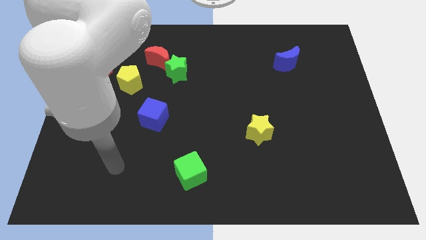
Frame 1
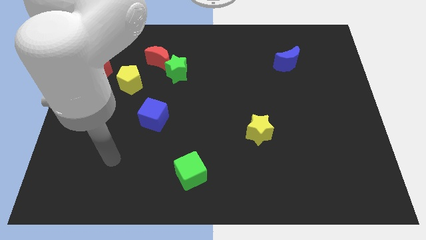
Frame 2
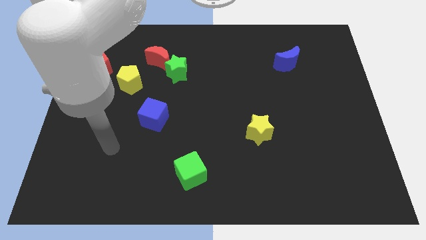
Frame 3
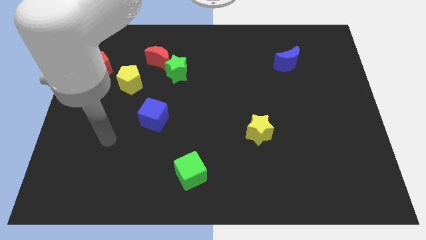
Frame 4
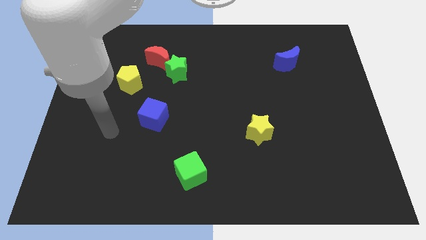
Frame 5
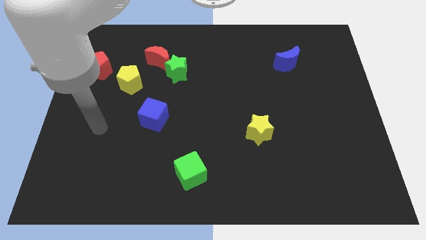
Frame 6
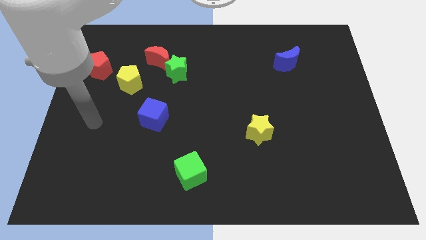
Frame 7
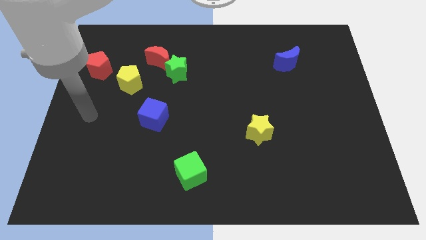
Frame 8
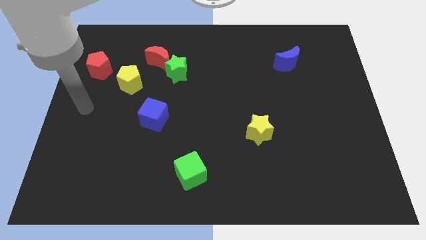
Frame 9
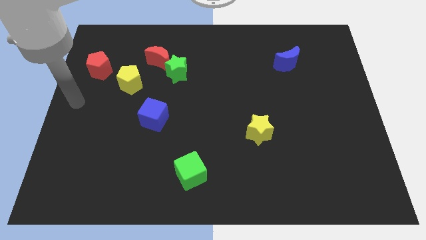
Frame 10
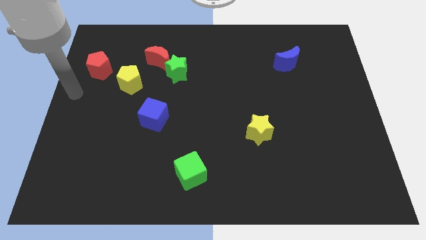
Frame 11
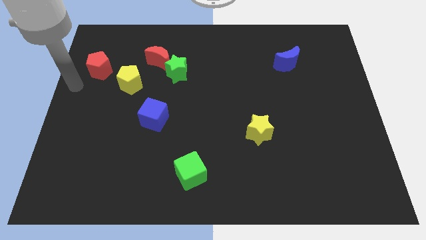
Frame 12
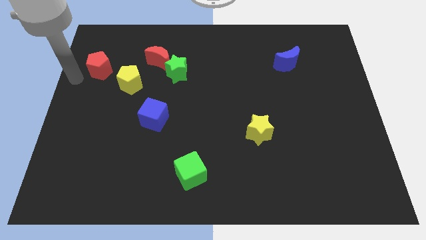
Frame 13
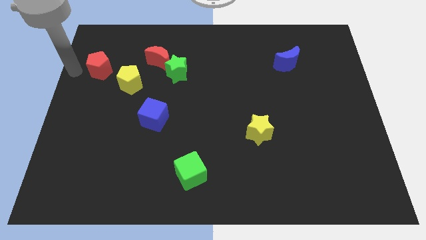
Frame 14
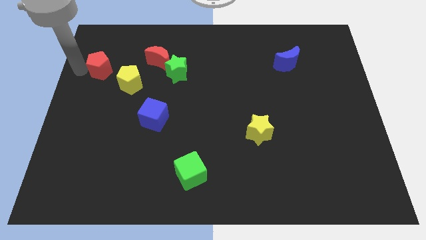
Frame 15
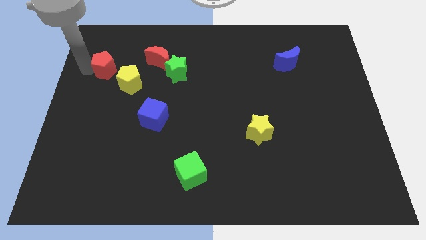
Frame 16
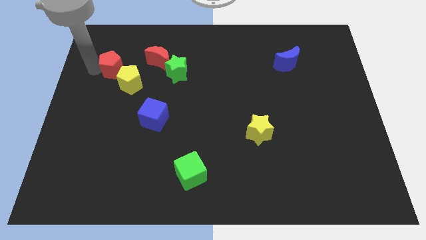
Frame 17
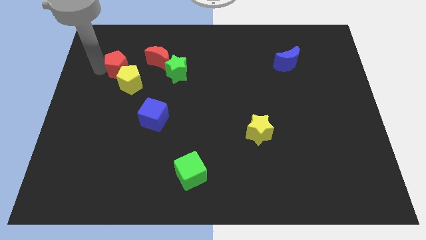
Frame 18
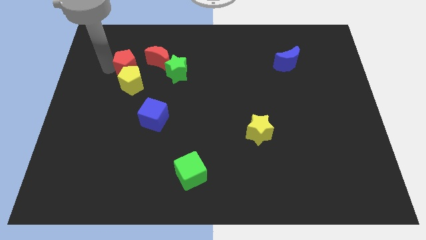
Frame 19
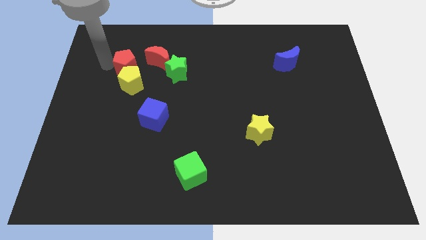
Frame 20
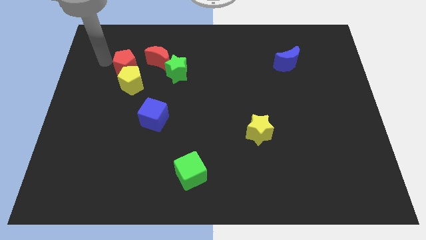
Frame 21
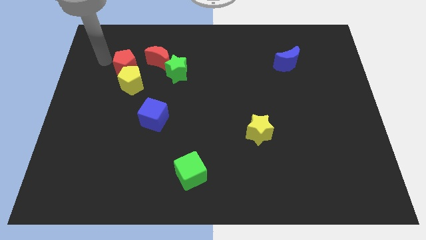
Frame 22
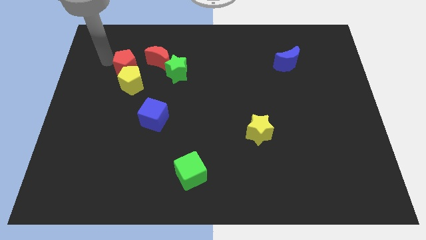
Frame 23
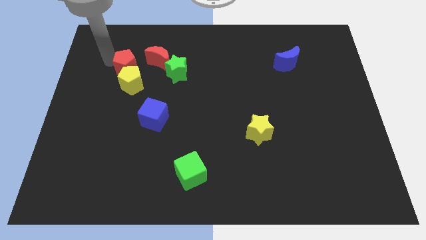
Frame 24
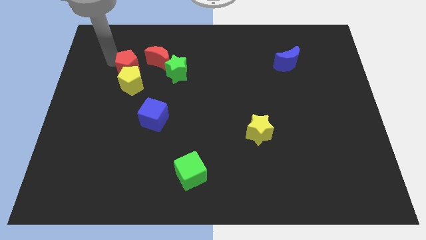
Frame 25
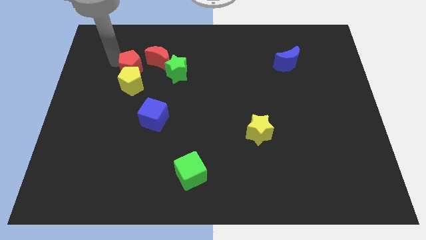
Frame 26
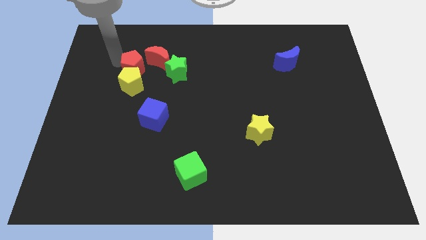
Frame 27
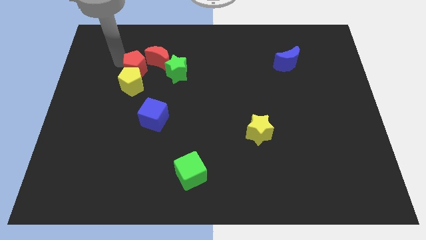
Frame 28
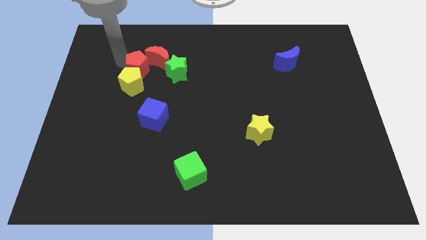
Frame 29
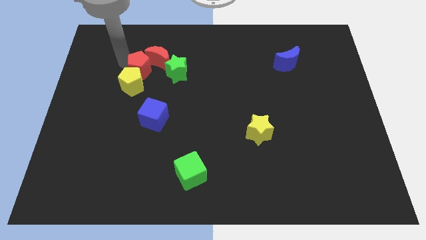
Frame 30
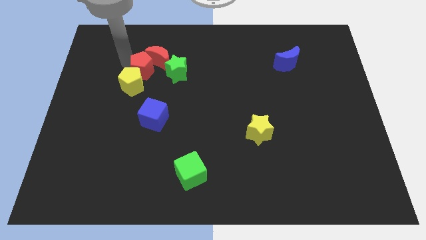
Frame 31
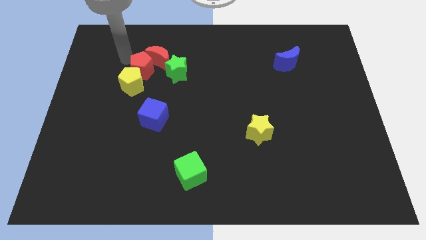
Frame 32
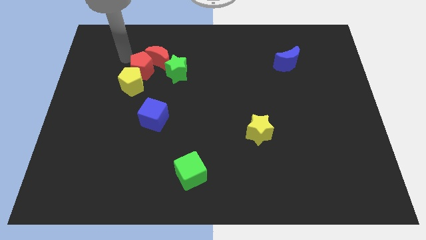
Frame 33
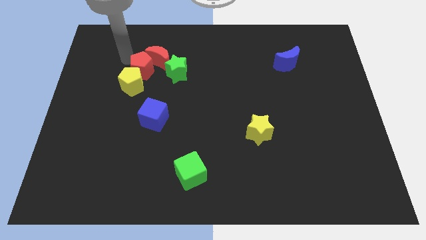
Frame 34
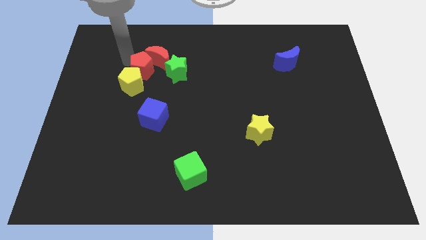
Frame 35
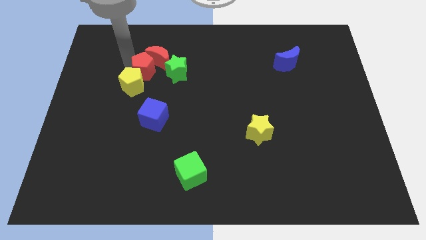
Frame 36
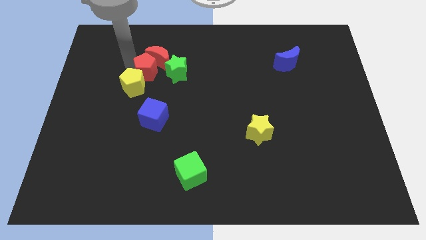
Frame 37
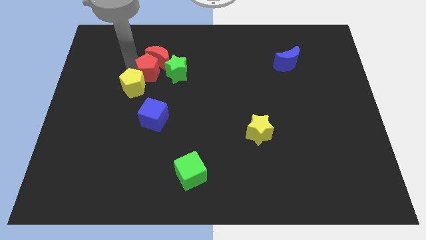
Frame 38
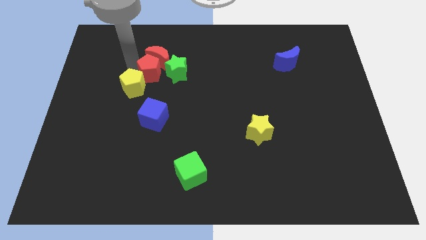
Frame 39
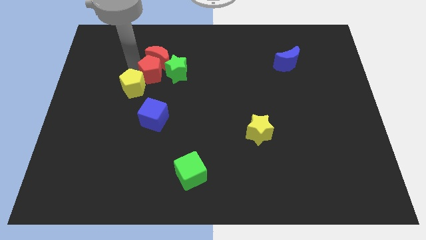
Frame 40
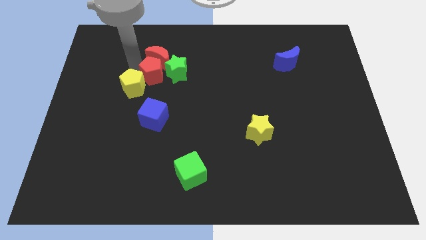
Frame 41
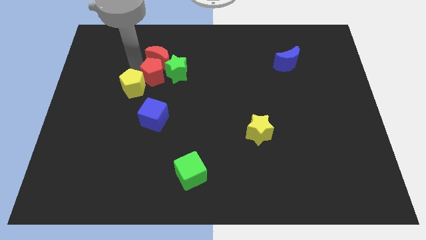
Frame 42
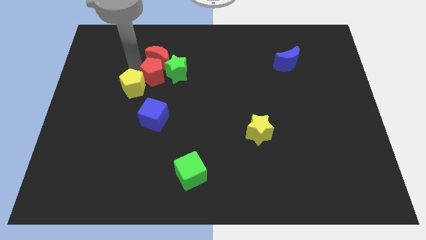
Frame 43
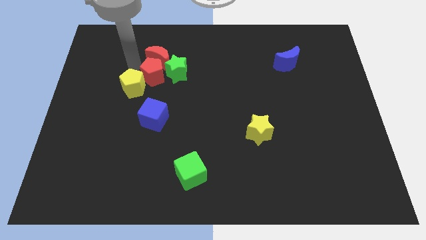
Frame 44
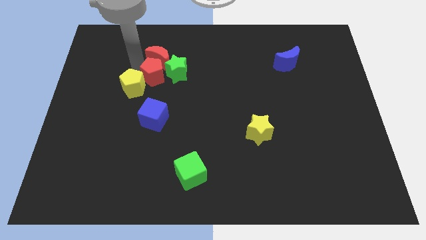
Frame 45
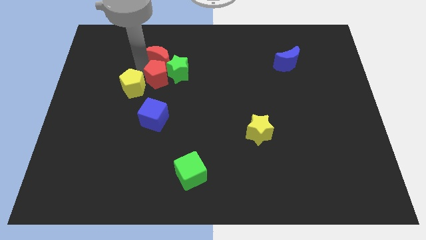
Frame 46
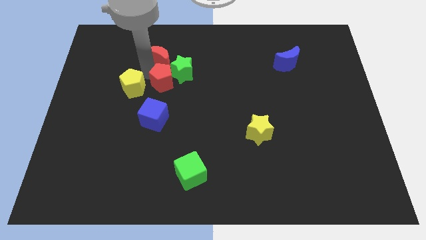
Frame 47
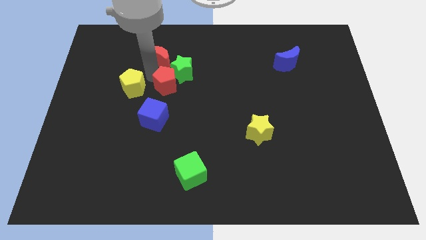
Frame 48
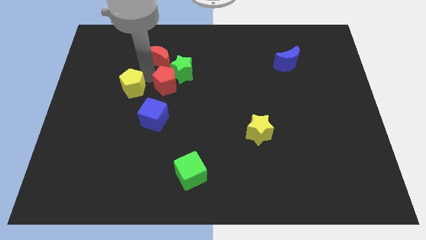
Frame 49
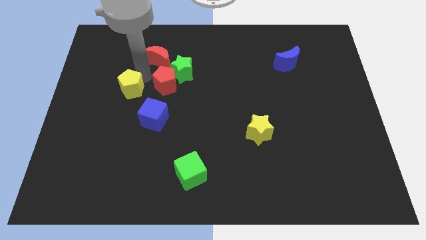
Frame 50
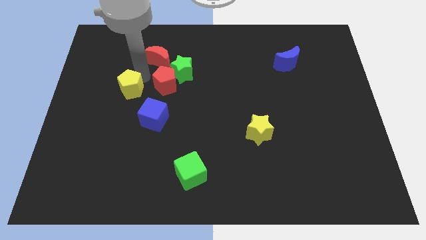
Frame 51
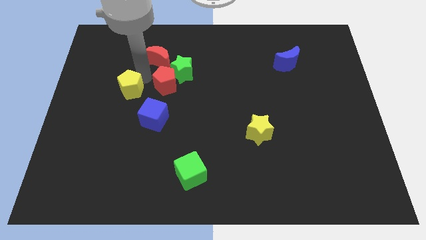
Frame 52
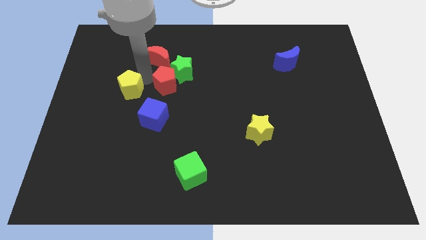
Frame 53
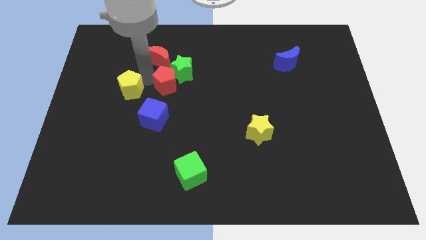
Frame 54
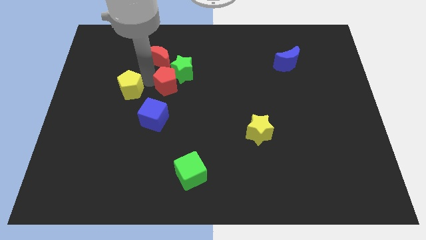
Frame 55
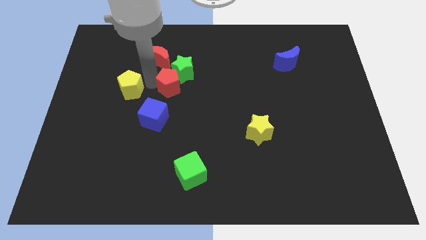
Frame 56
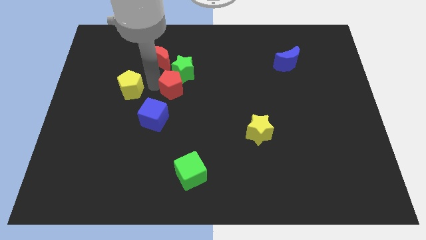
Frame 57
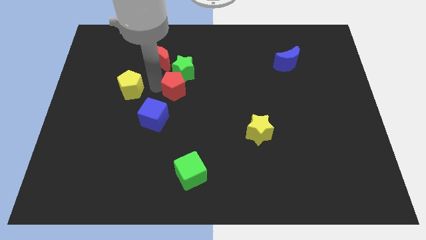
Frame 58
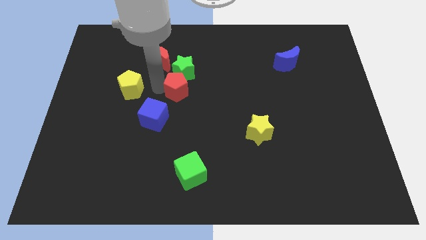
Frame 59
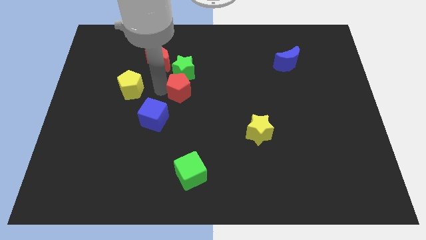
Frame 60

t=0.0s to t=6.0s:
move the red pentagon to the bottom right of the green star

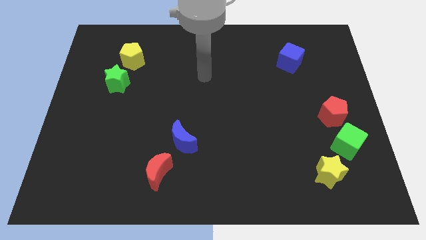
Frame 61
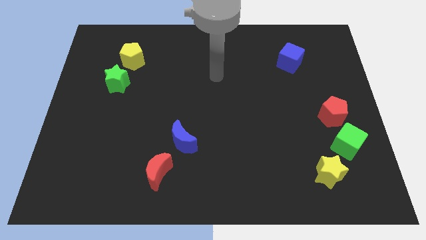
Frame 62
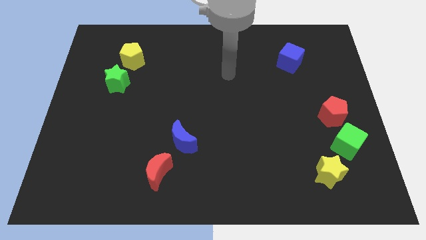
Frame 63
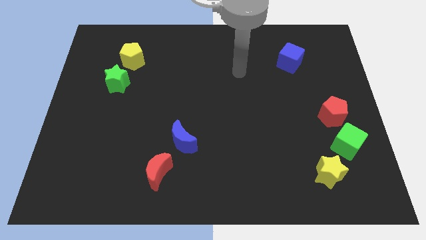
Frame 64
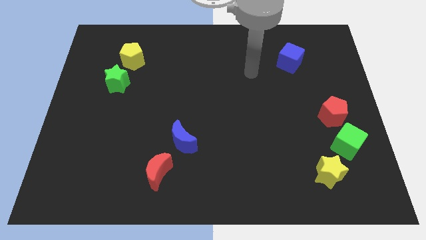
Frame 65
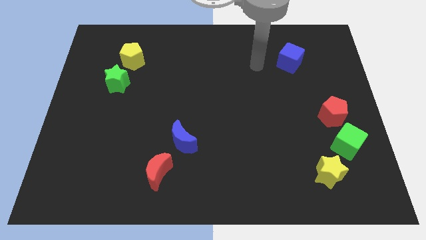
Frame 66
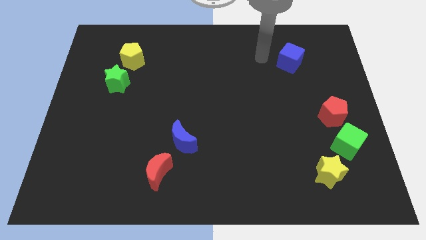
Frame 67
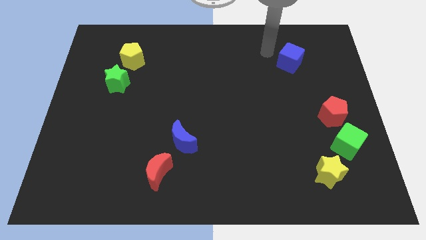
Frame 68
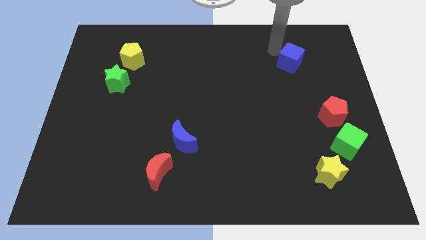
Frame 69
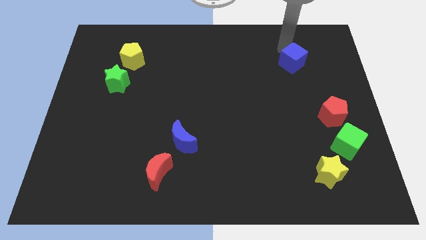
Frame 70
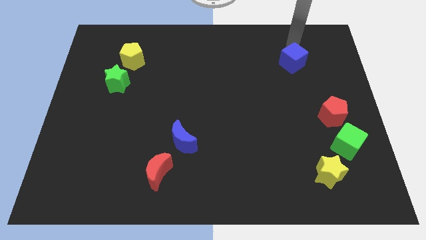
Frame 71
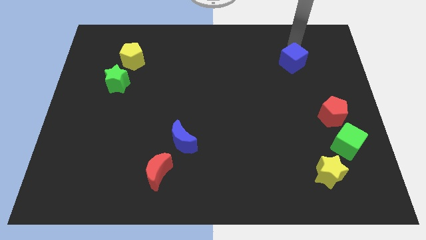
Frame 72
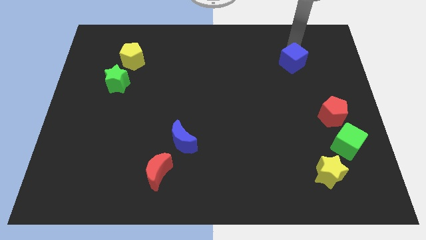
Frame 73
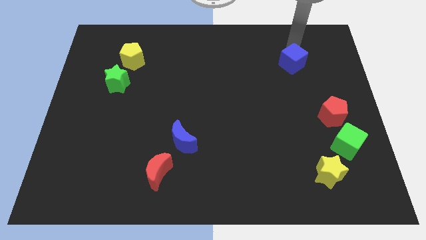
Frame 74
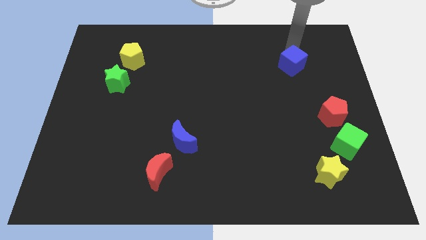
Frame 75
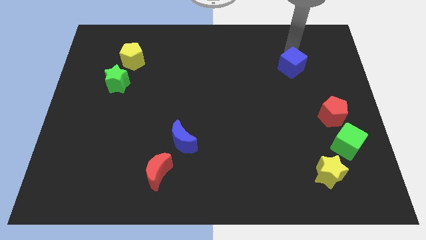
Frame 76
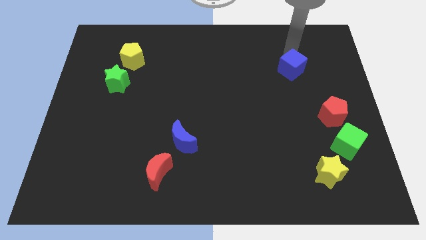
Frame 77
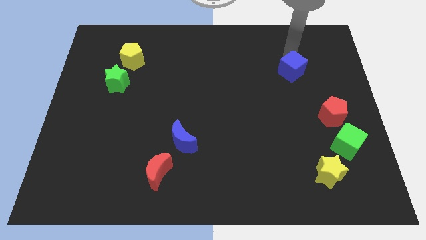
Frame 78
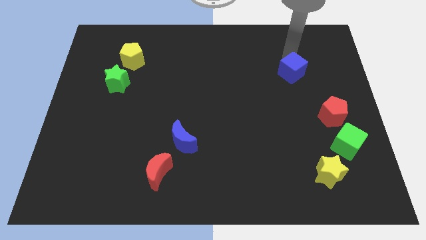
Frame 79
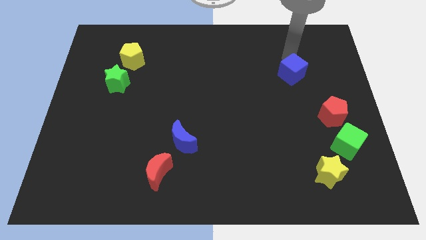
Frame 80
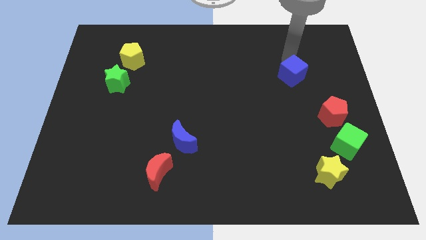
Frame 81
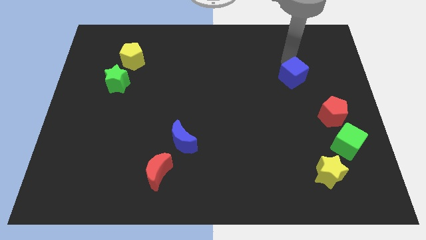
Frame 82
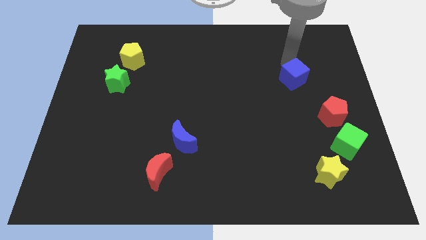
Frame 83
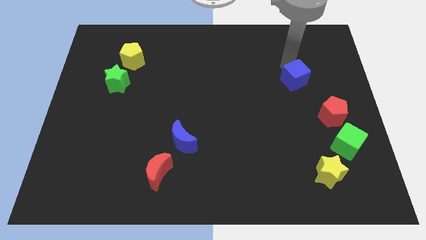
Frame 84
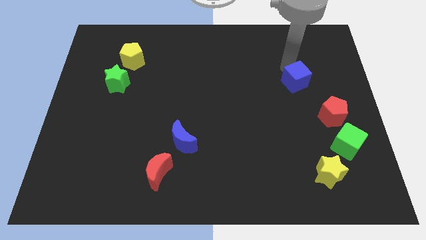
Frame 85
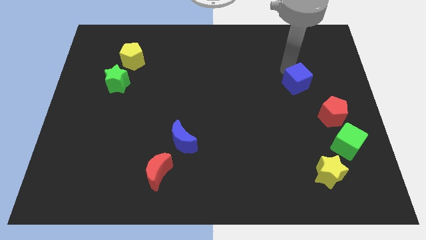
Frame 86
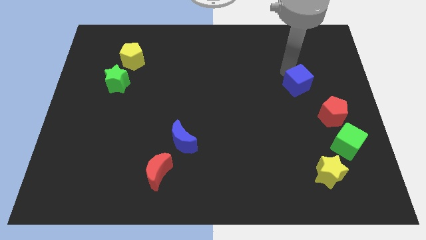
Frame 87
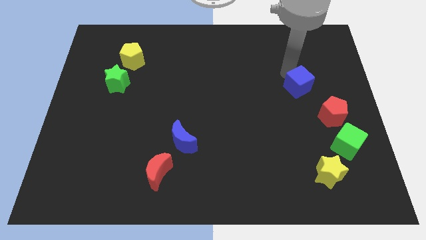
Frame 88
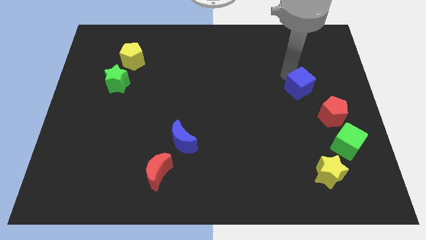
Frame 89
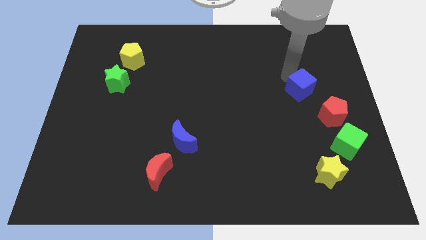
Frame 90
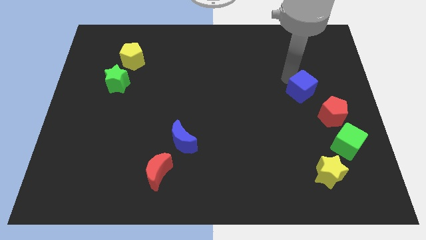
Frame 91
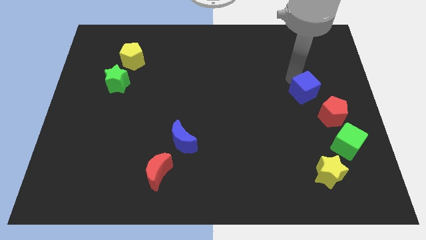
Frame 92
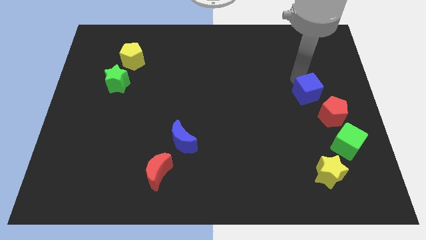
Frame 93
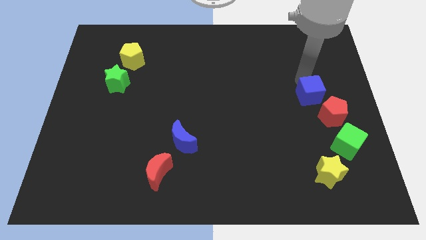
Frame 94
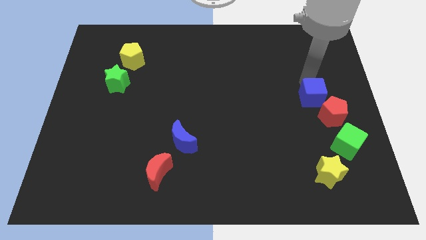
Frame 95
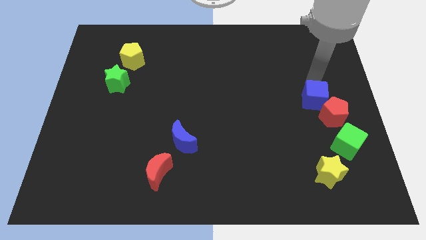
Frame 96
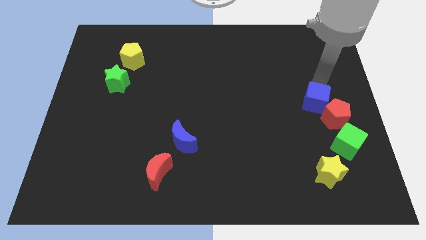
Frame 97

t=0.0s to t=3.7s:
slide the blue cube to the left of the red pentagon
